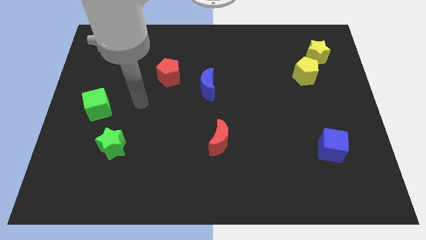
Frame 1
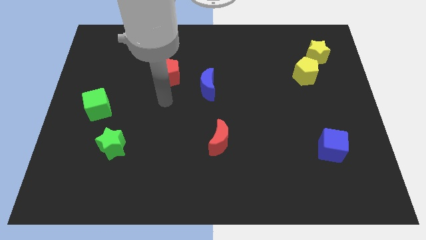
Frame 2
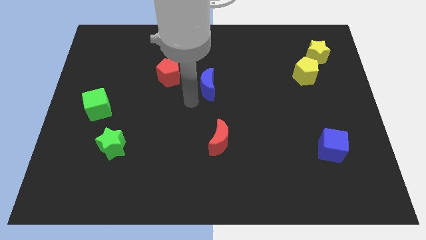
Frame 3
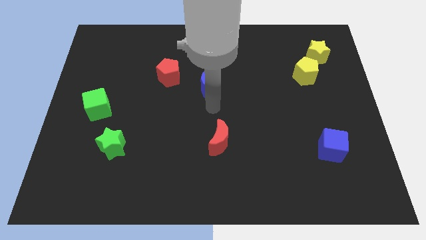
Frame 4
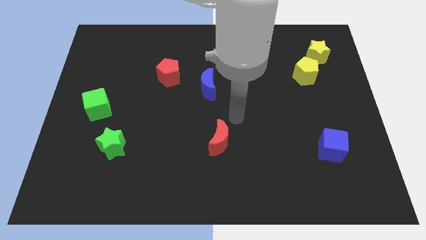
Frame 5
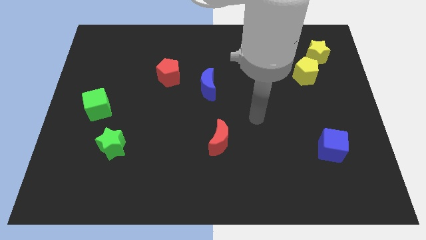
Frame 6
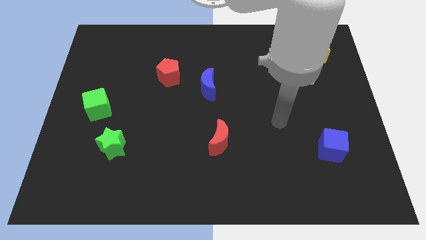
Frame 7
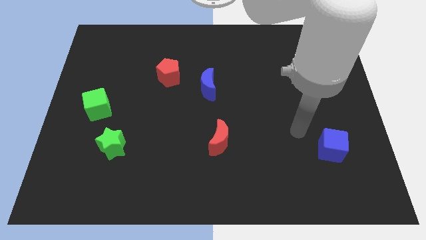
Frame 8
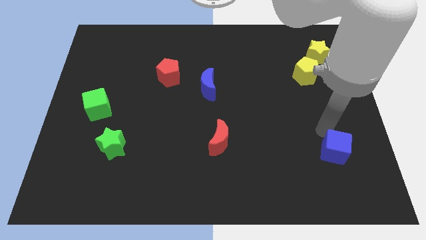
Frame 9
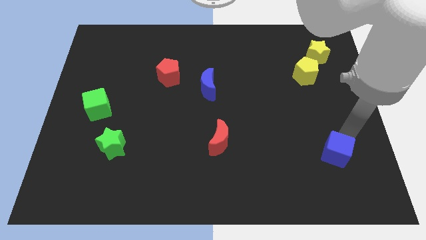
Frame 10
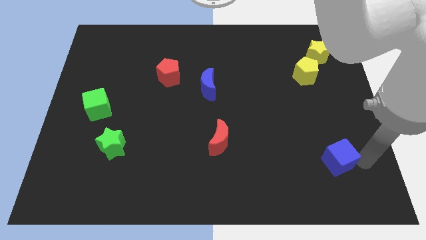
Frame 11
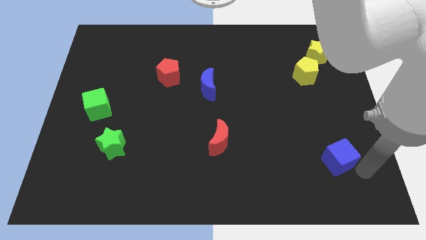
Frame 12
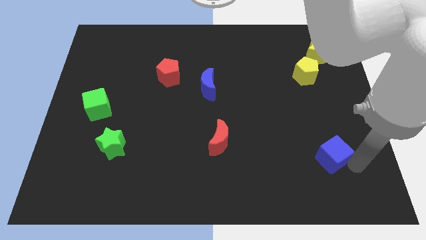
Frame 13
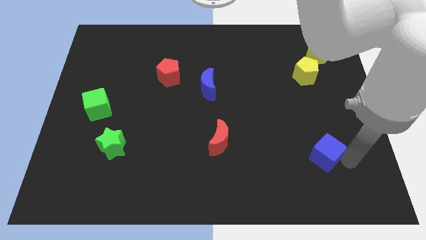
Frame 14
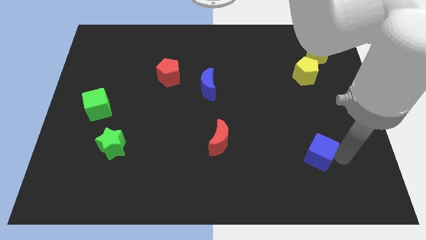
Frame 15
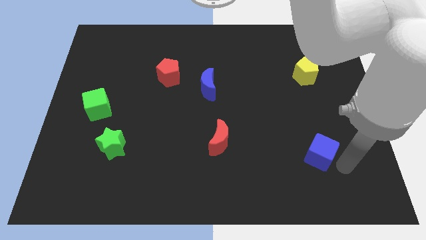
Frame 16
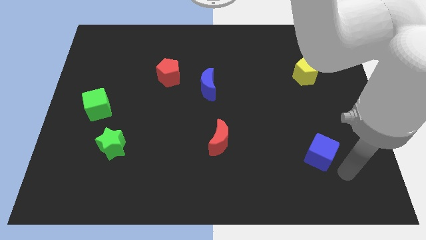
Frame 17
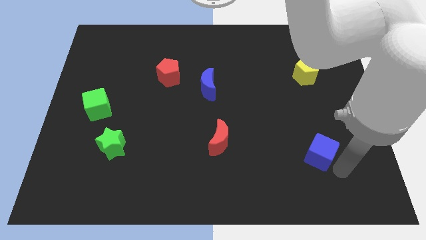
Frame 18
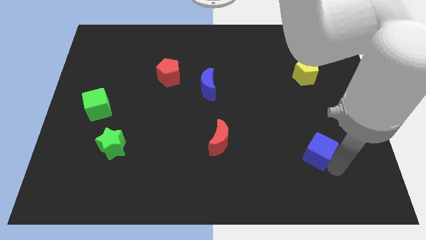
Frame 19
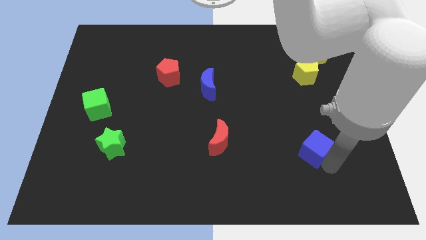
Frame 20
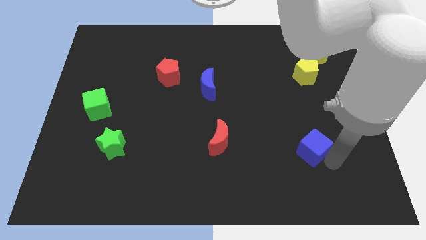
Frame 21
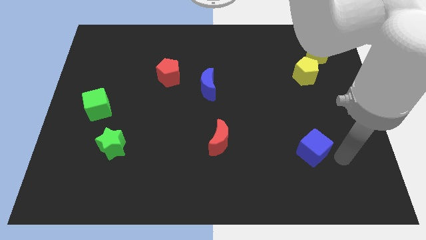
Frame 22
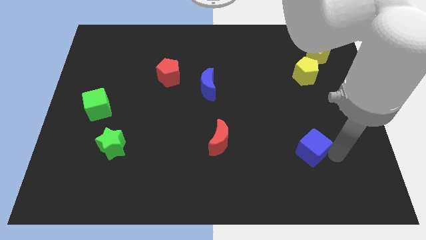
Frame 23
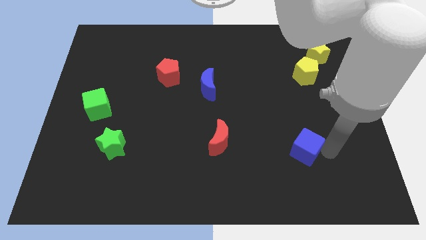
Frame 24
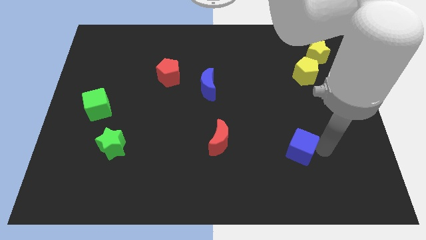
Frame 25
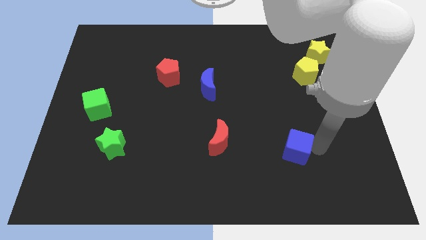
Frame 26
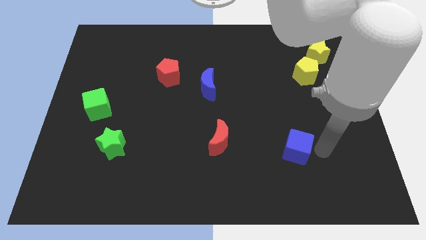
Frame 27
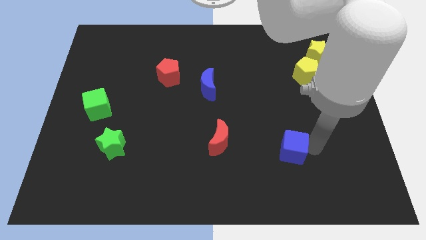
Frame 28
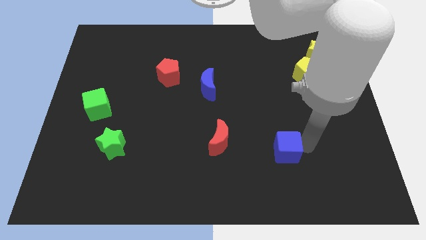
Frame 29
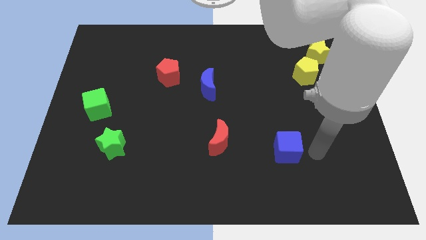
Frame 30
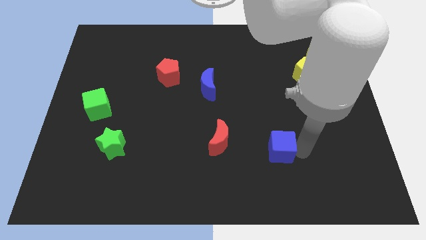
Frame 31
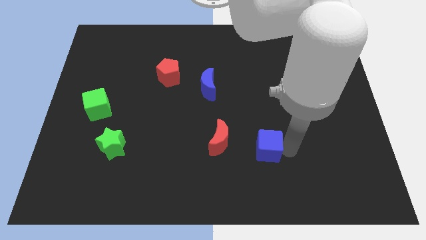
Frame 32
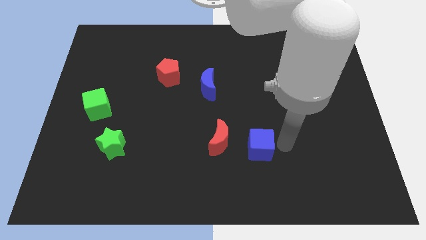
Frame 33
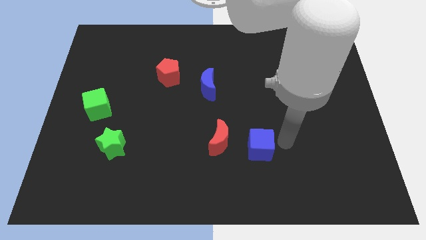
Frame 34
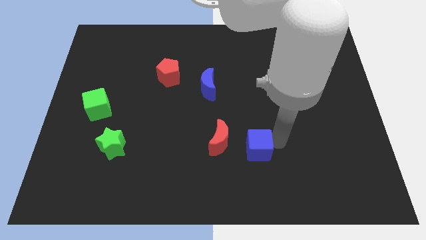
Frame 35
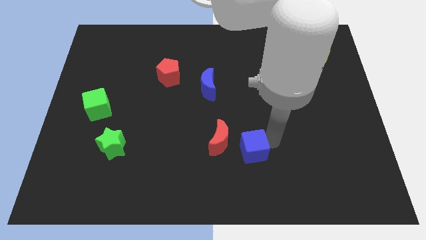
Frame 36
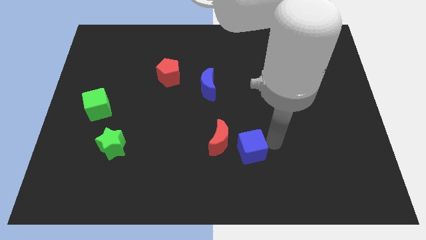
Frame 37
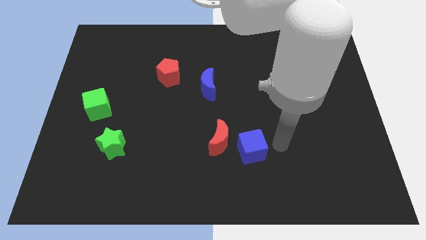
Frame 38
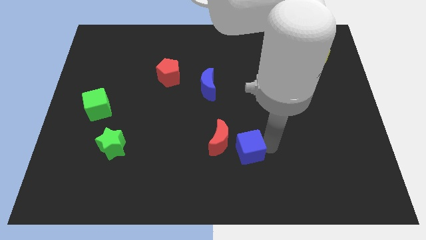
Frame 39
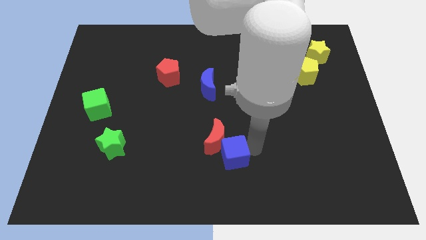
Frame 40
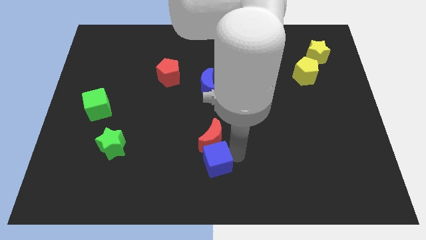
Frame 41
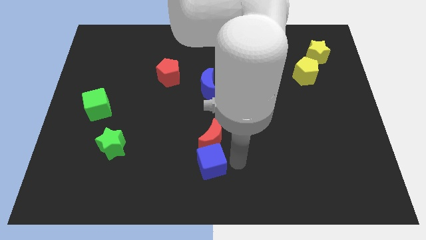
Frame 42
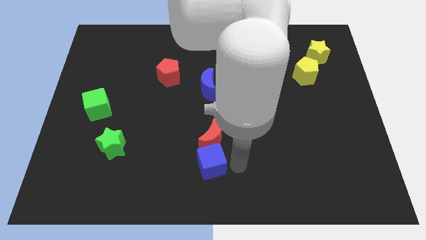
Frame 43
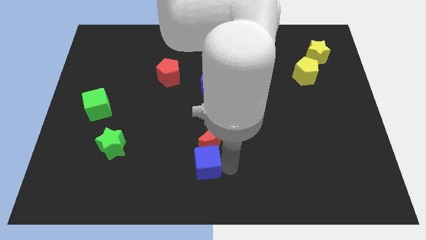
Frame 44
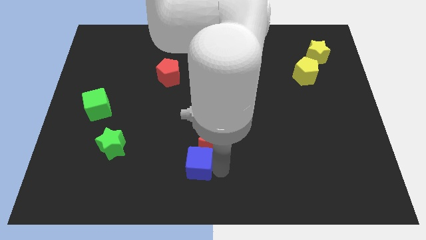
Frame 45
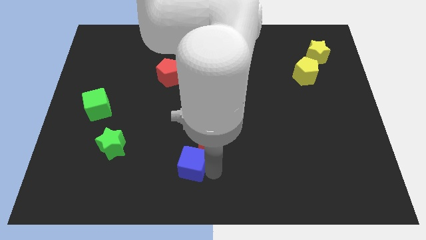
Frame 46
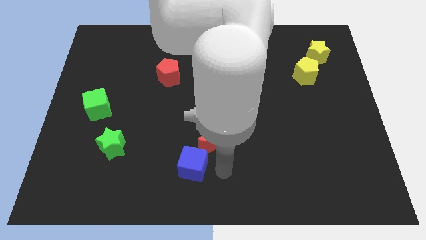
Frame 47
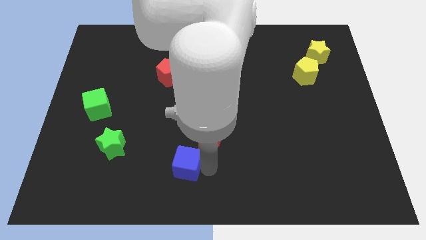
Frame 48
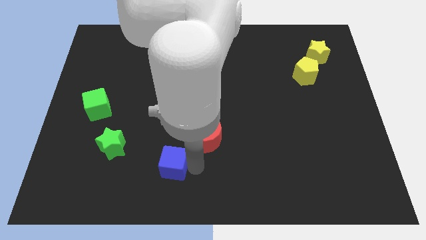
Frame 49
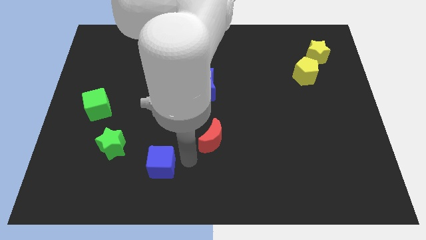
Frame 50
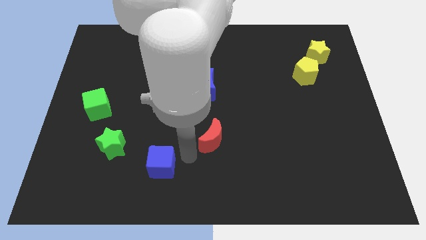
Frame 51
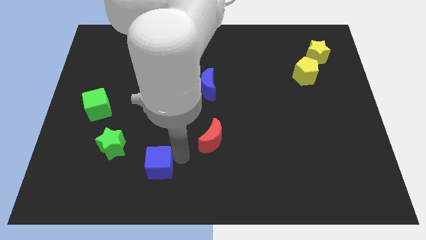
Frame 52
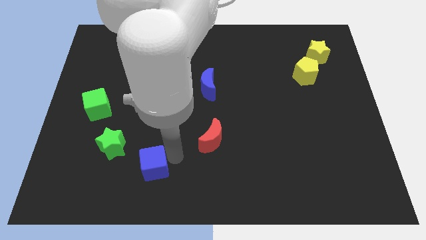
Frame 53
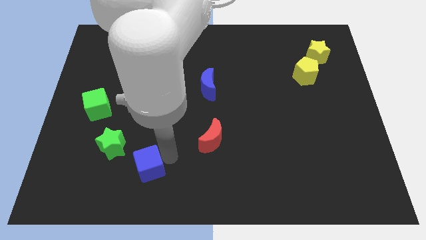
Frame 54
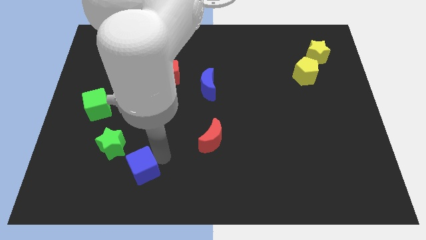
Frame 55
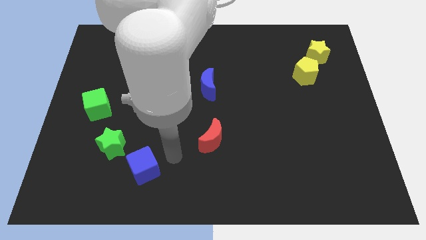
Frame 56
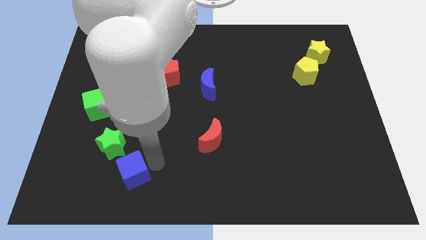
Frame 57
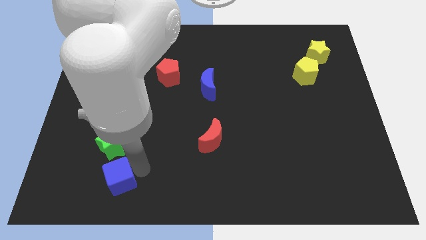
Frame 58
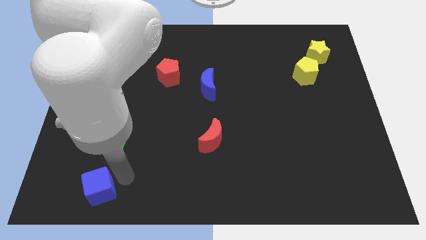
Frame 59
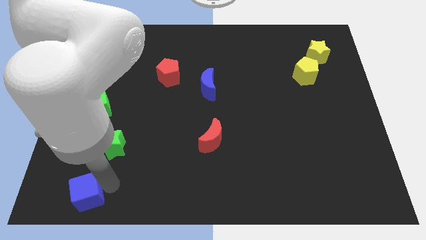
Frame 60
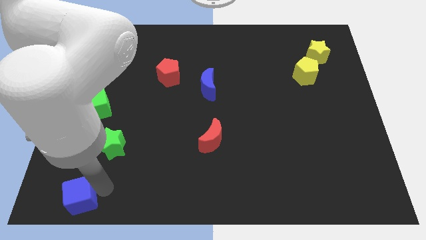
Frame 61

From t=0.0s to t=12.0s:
move the blue cube to the lower left corner

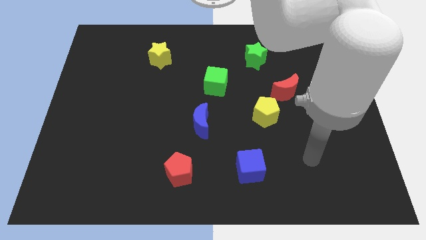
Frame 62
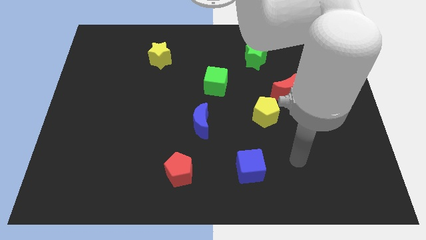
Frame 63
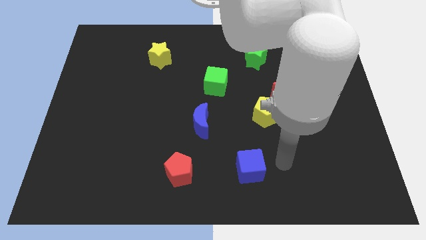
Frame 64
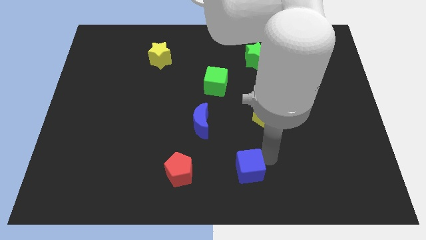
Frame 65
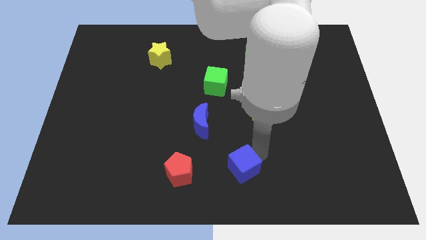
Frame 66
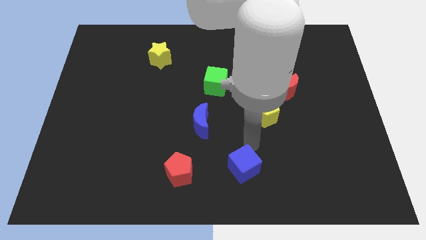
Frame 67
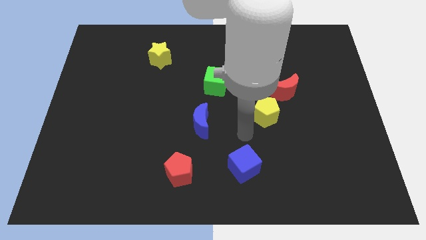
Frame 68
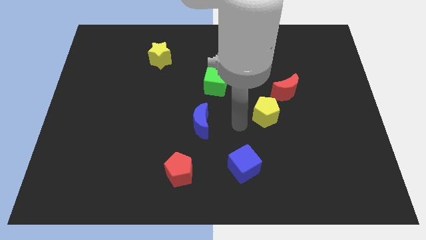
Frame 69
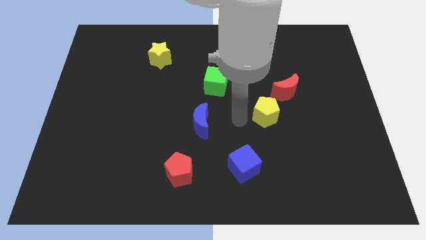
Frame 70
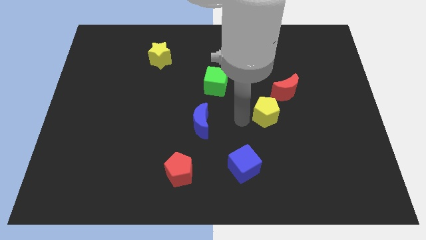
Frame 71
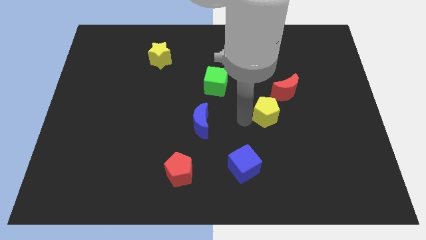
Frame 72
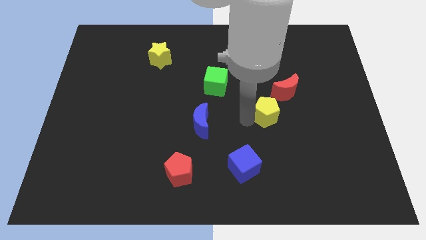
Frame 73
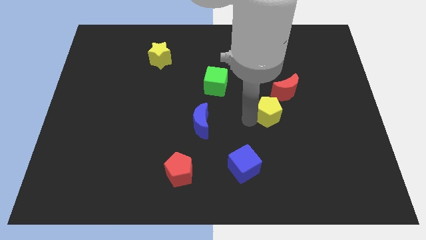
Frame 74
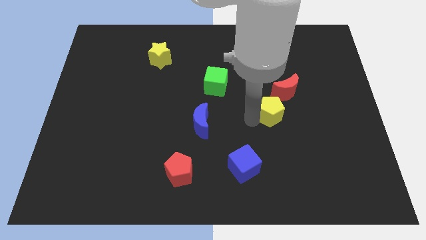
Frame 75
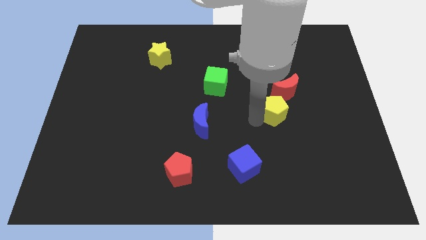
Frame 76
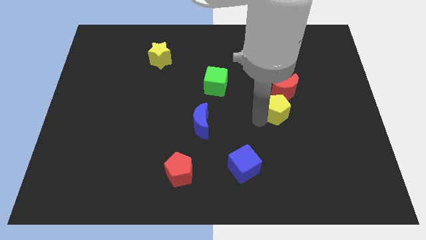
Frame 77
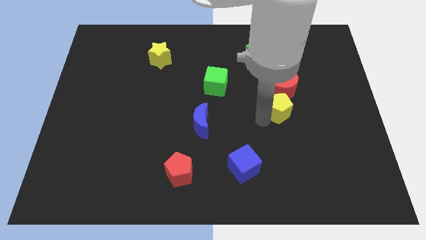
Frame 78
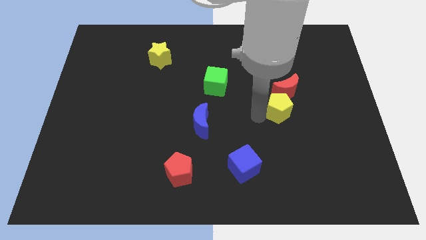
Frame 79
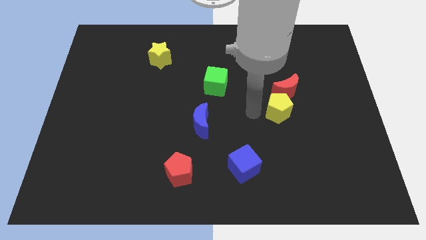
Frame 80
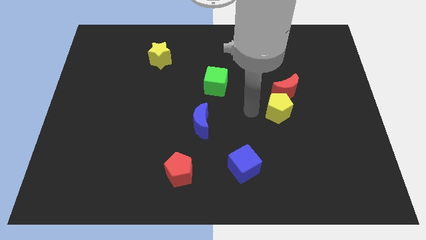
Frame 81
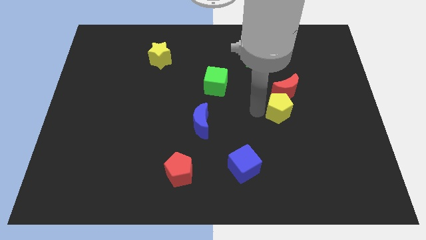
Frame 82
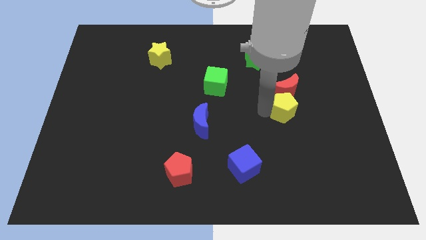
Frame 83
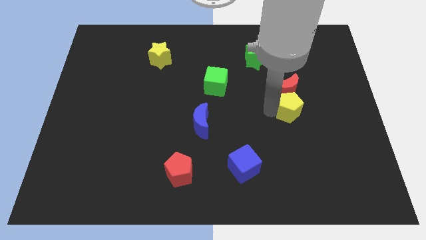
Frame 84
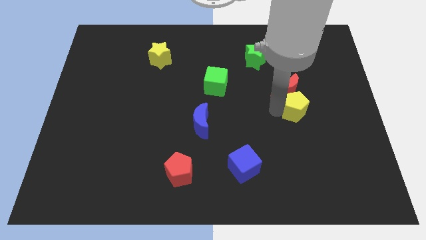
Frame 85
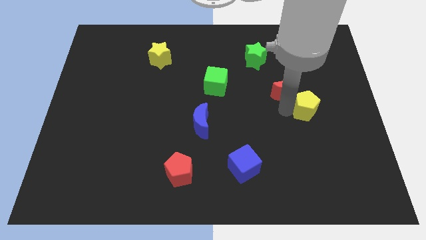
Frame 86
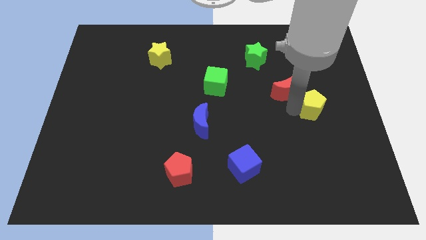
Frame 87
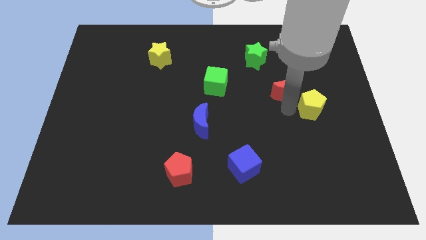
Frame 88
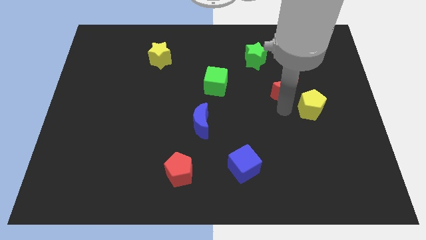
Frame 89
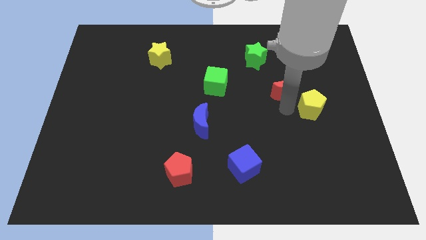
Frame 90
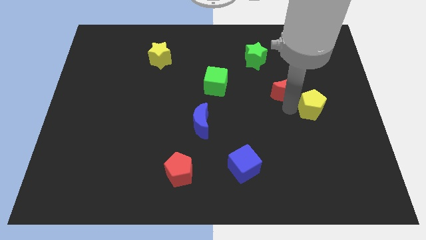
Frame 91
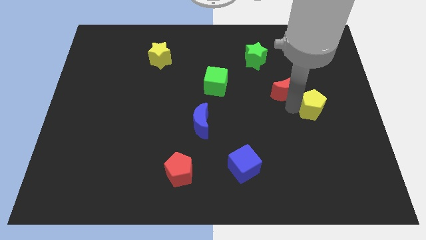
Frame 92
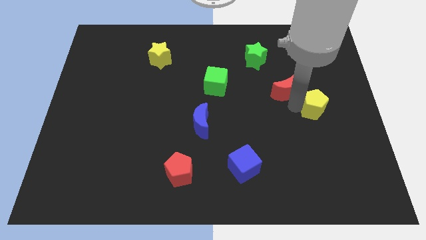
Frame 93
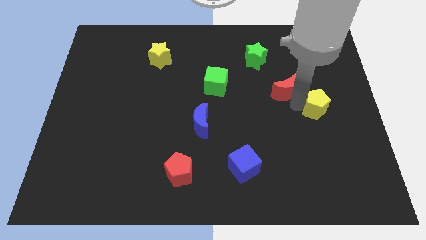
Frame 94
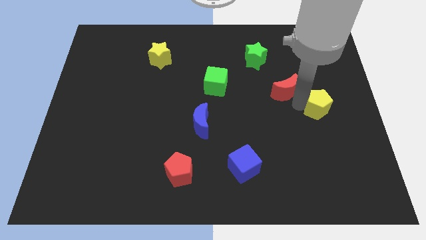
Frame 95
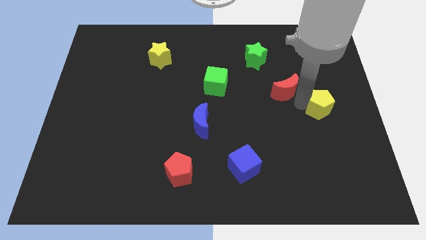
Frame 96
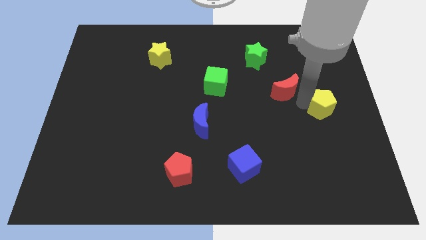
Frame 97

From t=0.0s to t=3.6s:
move the yellow pentagon to the right side of the board
